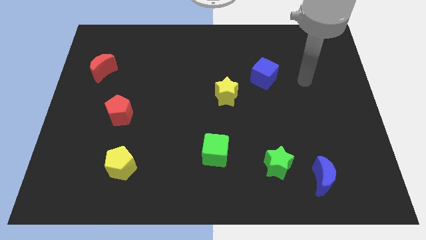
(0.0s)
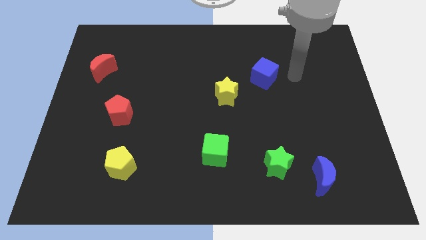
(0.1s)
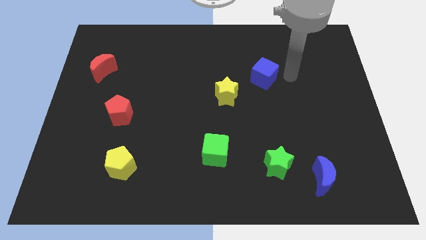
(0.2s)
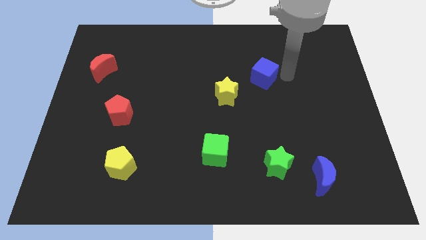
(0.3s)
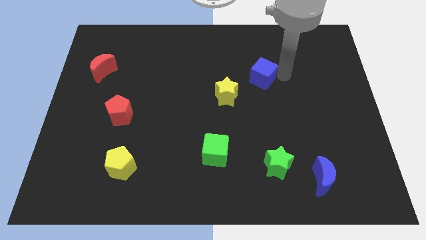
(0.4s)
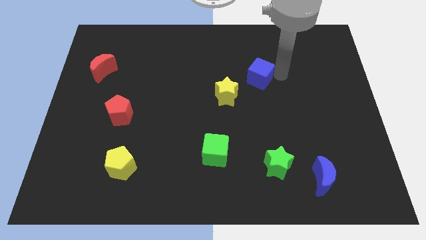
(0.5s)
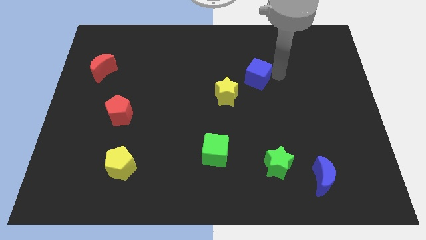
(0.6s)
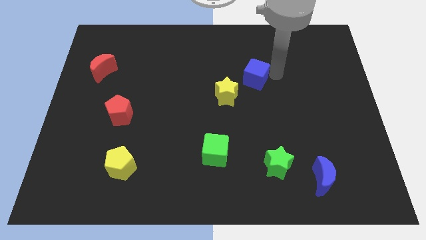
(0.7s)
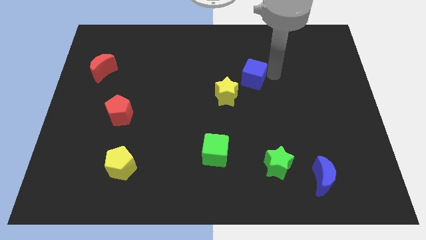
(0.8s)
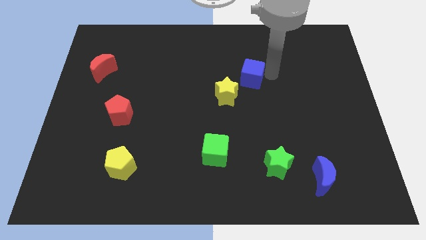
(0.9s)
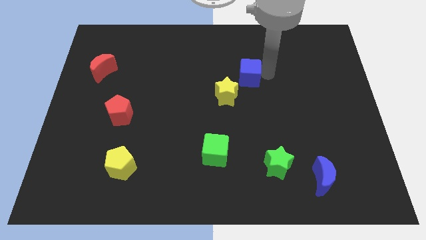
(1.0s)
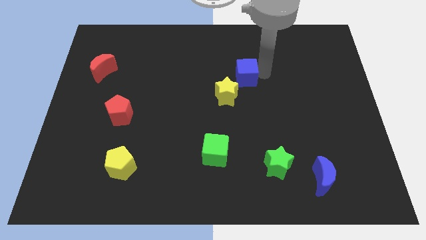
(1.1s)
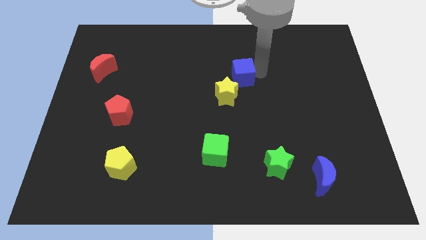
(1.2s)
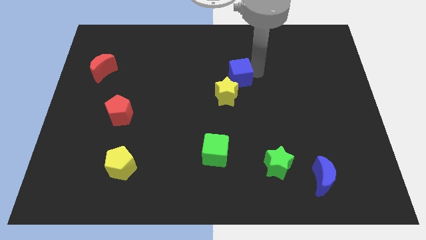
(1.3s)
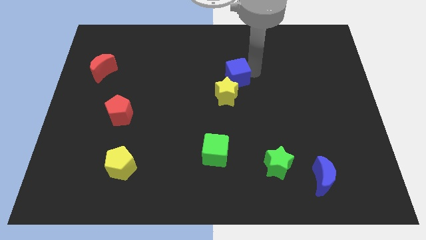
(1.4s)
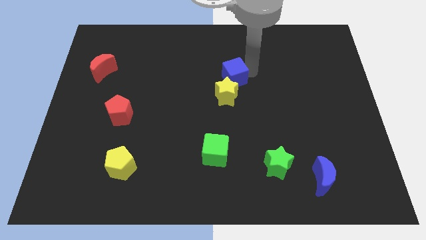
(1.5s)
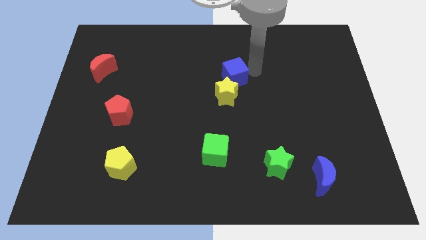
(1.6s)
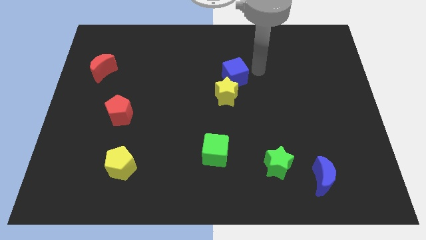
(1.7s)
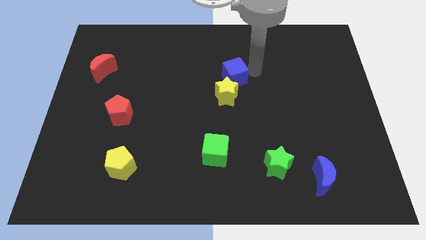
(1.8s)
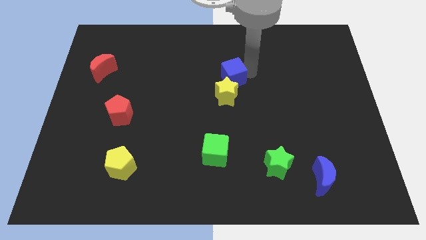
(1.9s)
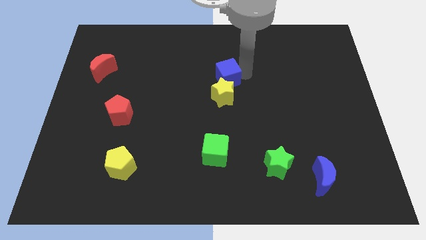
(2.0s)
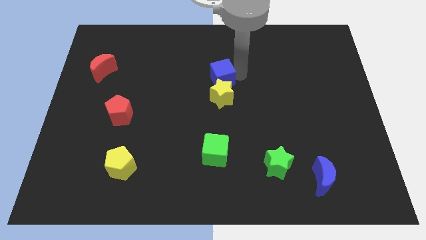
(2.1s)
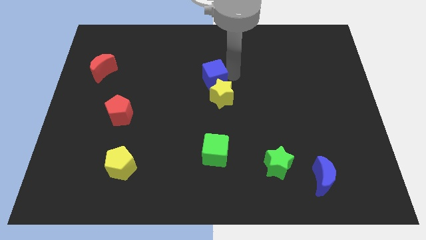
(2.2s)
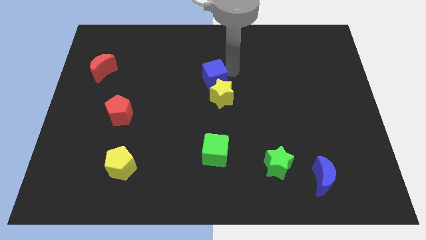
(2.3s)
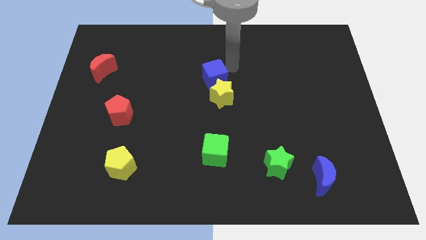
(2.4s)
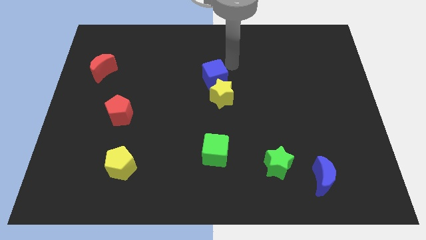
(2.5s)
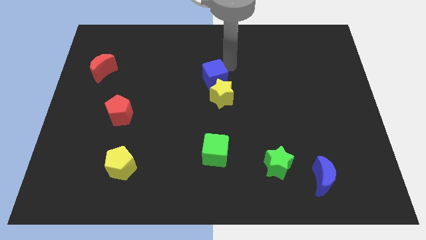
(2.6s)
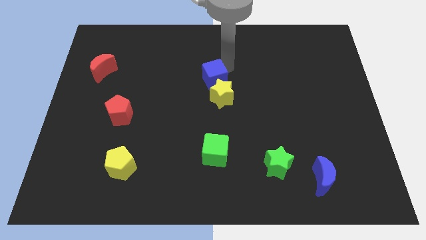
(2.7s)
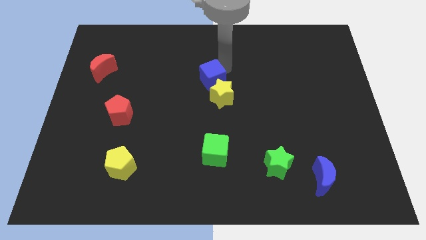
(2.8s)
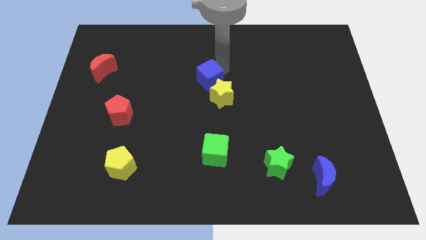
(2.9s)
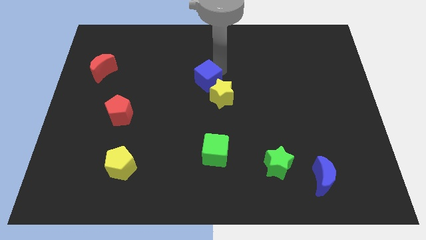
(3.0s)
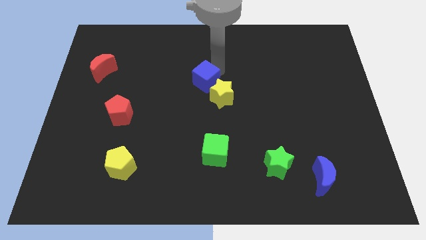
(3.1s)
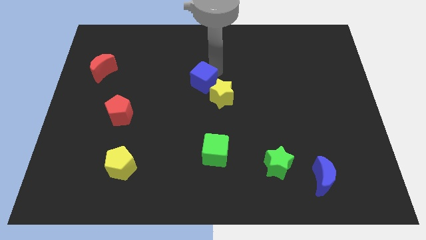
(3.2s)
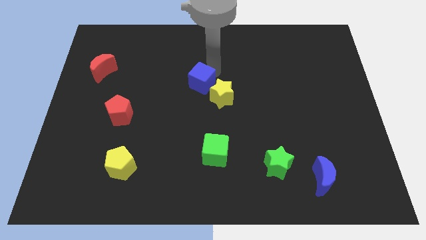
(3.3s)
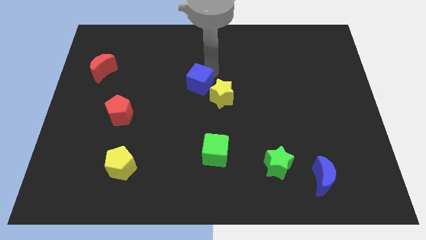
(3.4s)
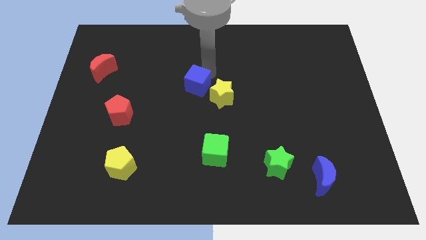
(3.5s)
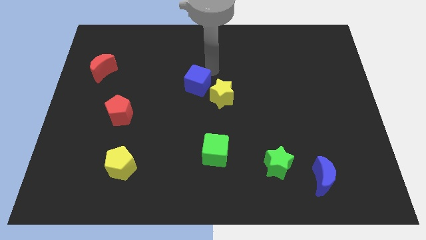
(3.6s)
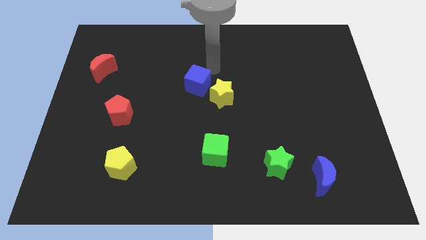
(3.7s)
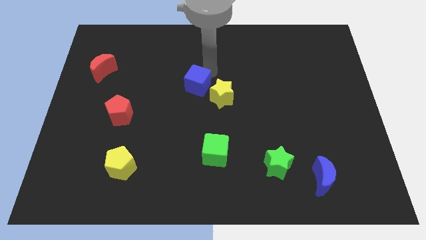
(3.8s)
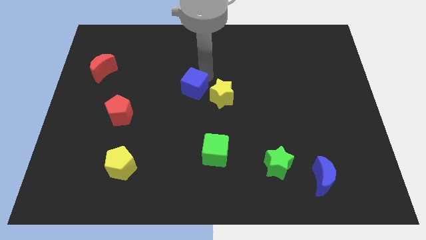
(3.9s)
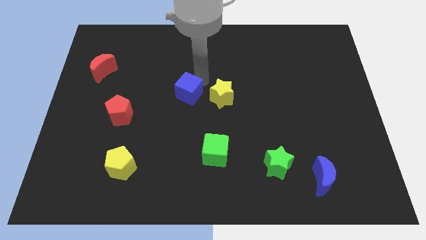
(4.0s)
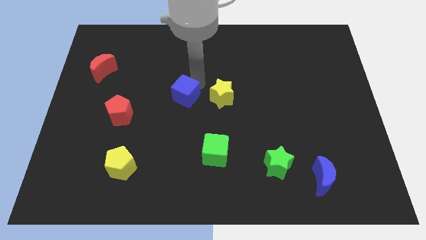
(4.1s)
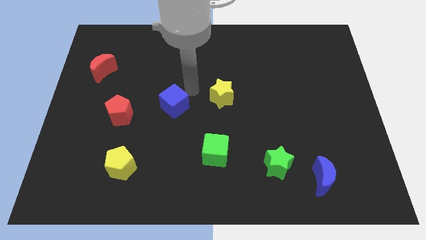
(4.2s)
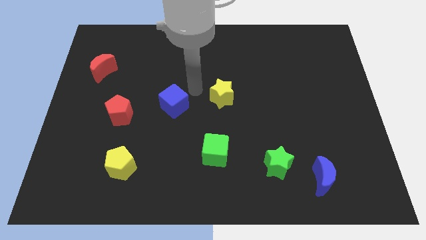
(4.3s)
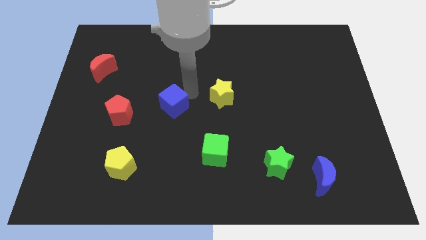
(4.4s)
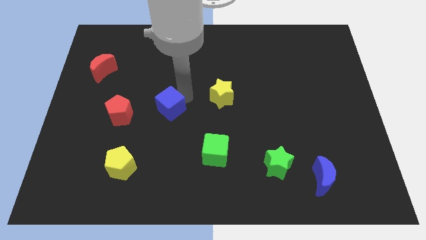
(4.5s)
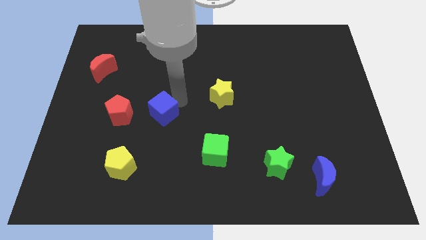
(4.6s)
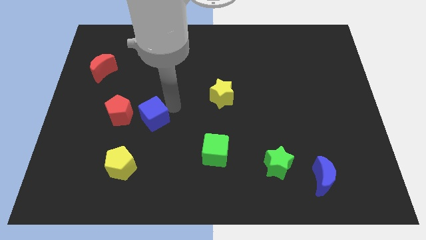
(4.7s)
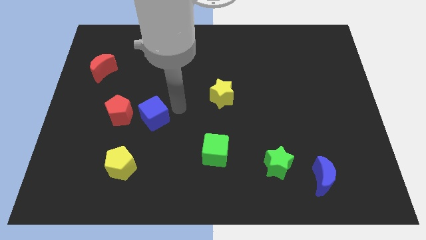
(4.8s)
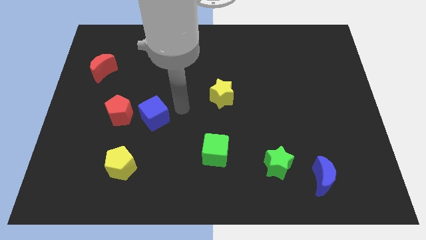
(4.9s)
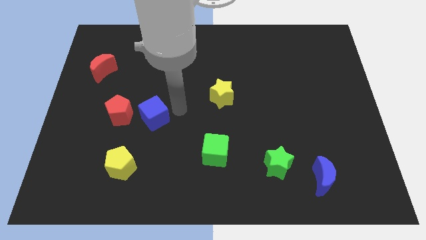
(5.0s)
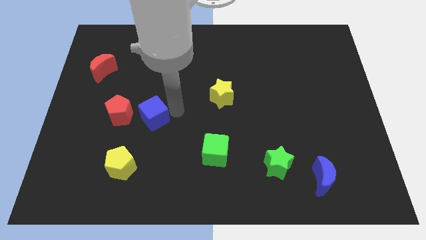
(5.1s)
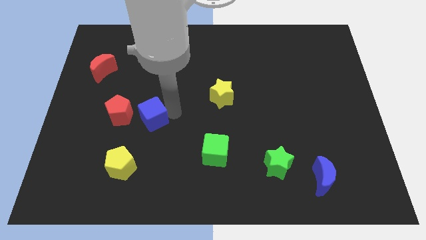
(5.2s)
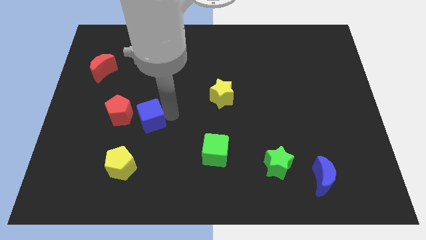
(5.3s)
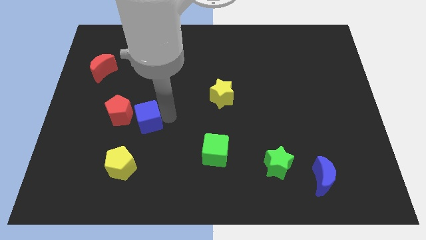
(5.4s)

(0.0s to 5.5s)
move the blue cube above the yellow pentagon

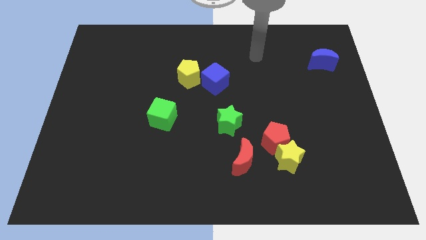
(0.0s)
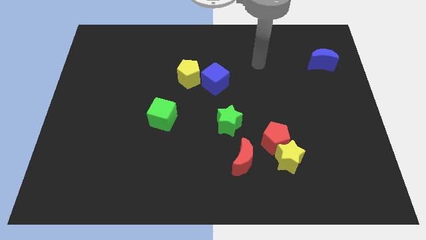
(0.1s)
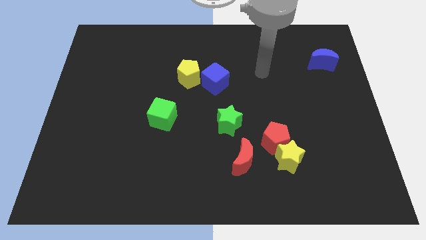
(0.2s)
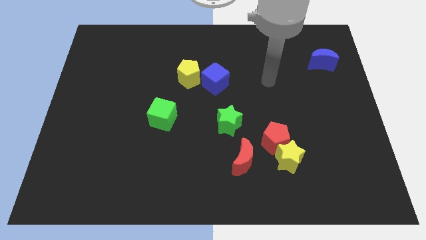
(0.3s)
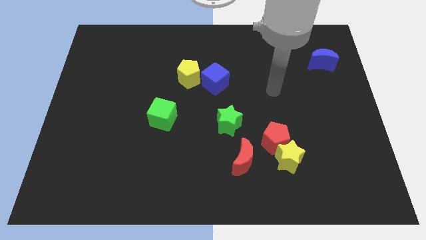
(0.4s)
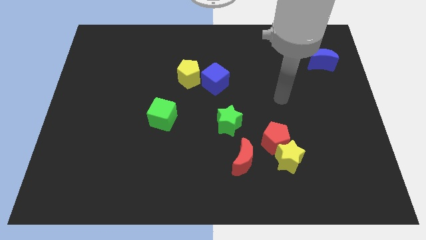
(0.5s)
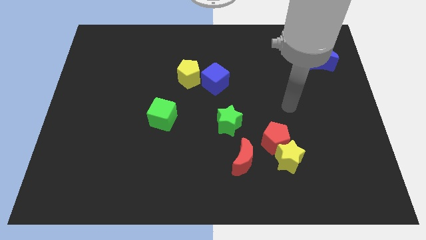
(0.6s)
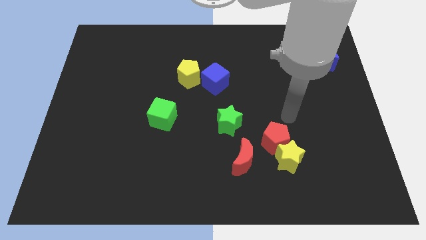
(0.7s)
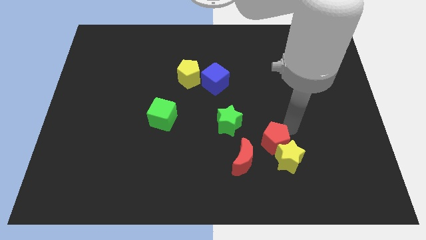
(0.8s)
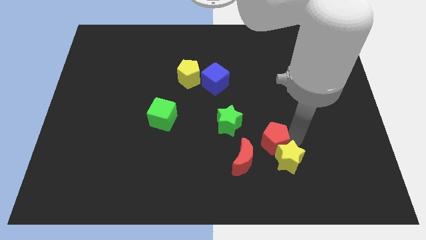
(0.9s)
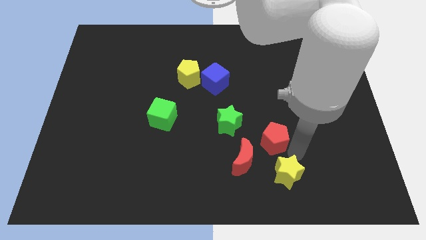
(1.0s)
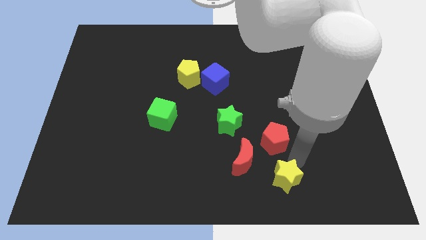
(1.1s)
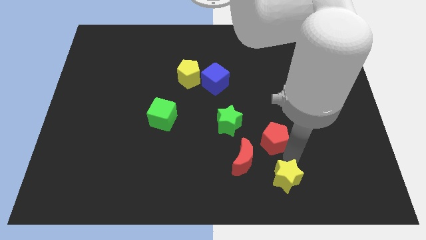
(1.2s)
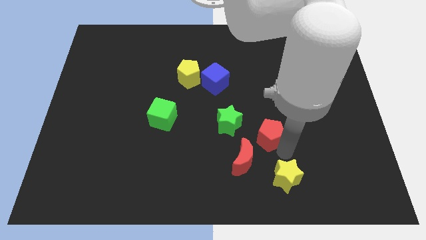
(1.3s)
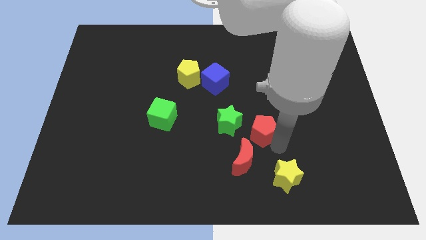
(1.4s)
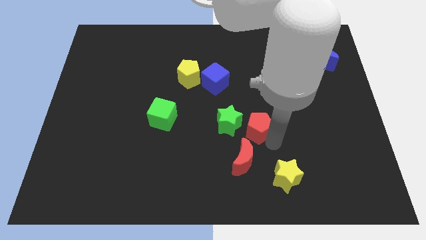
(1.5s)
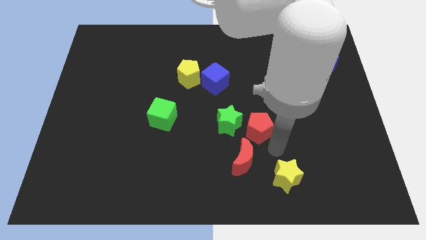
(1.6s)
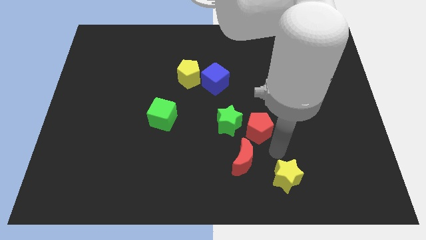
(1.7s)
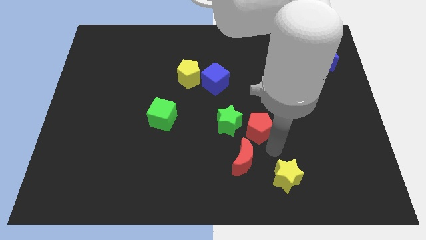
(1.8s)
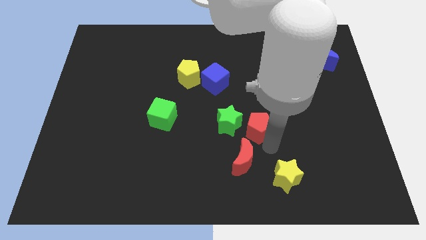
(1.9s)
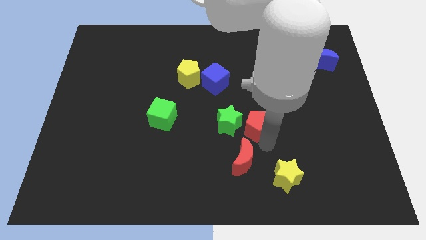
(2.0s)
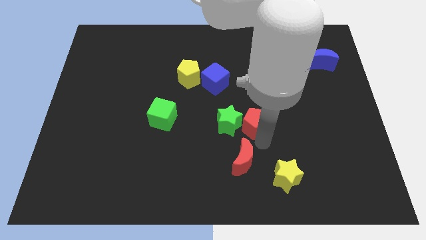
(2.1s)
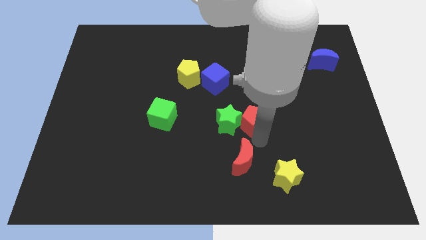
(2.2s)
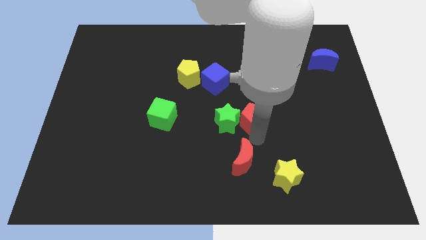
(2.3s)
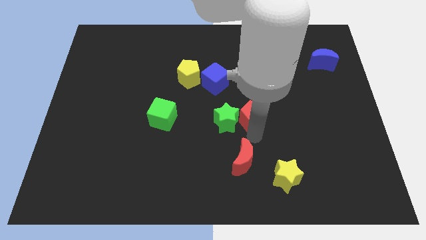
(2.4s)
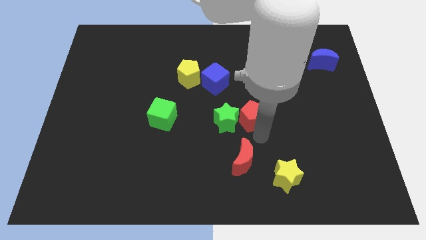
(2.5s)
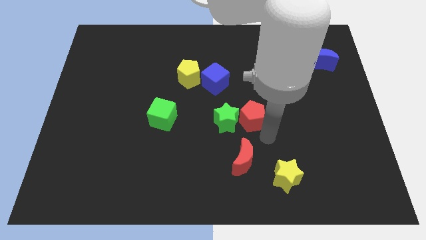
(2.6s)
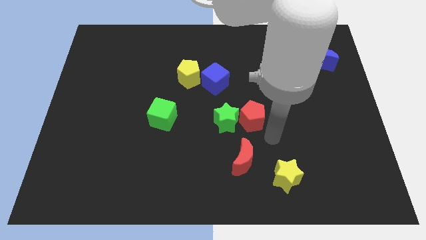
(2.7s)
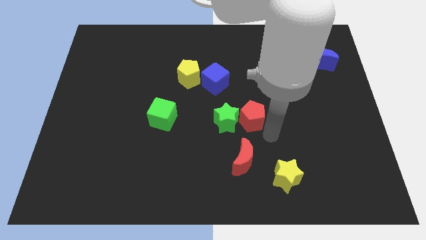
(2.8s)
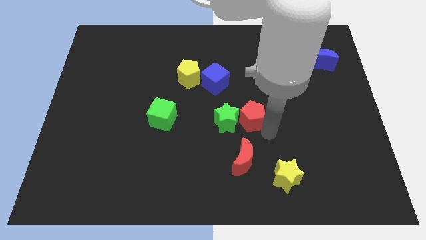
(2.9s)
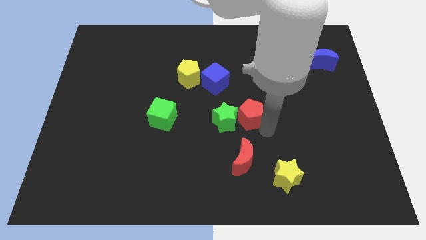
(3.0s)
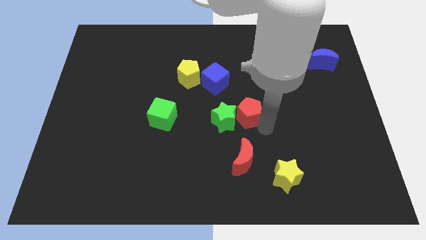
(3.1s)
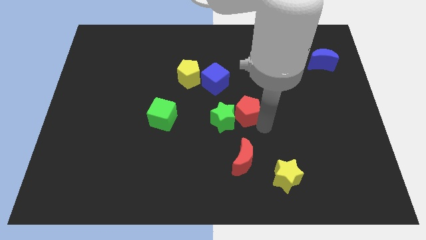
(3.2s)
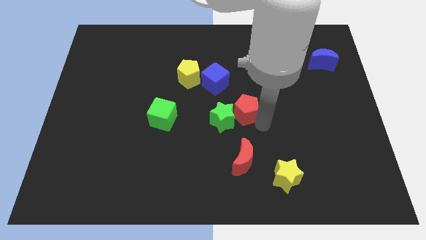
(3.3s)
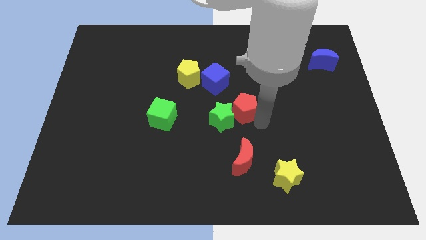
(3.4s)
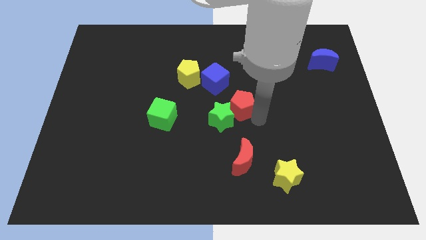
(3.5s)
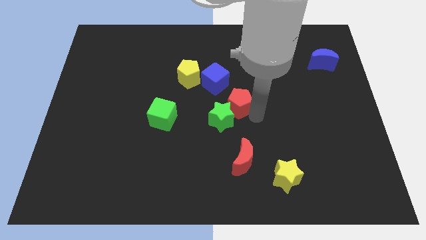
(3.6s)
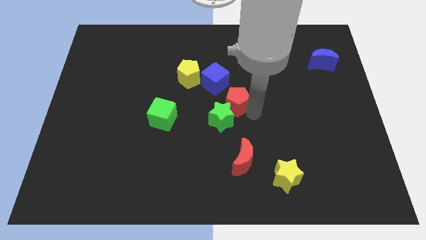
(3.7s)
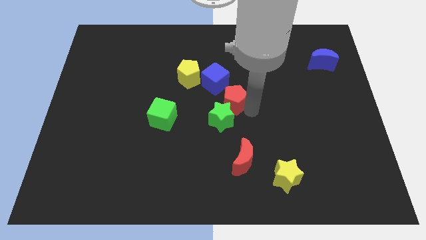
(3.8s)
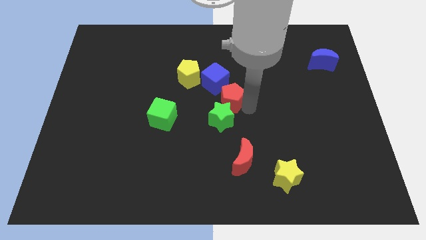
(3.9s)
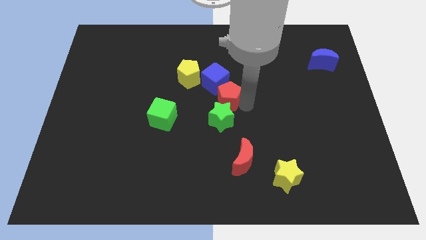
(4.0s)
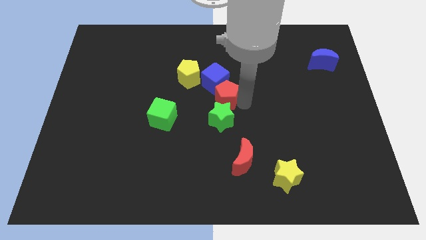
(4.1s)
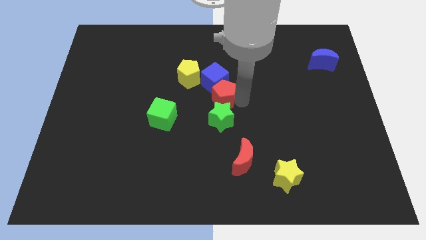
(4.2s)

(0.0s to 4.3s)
slide the red pentagon to the top left of the green star
